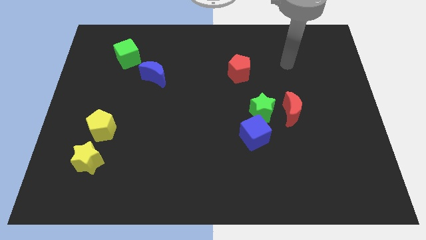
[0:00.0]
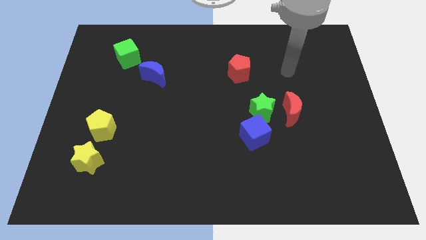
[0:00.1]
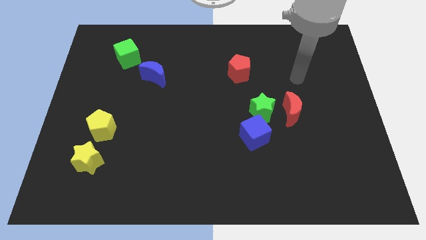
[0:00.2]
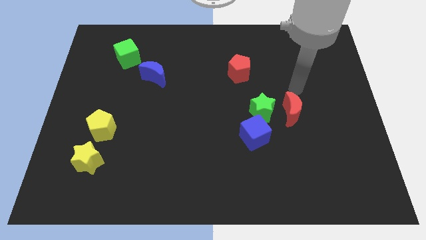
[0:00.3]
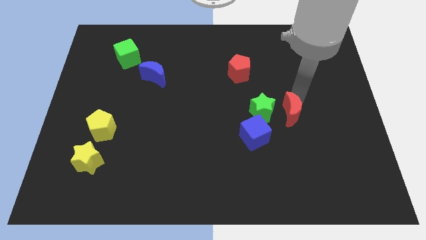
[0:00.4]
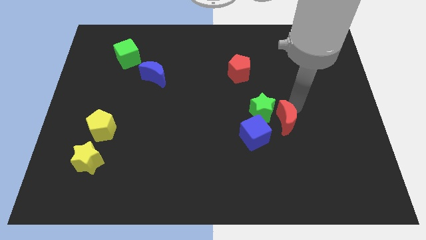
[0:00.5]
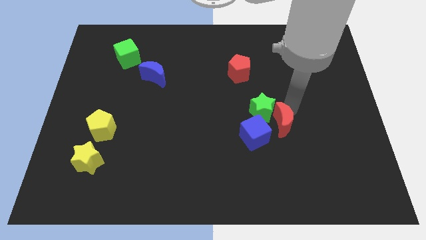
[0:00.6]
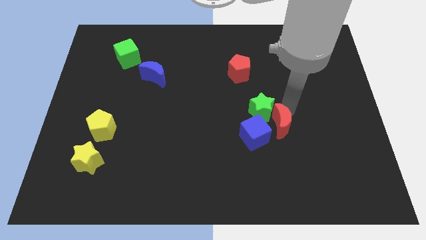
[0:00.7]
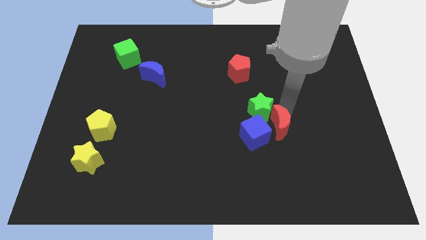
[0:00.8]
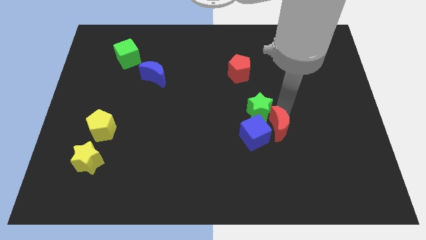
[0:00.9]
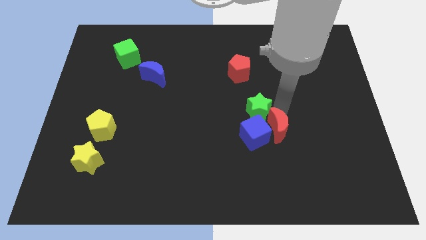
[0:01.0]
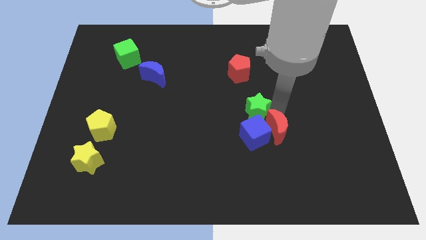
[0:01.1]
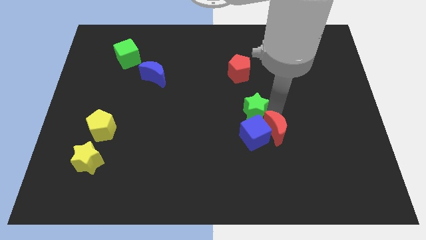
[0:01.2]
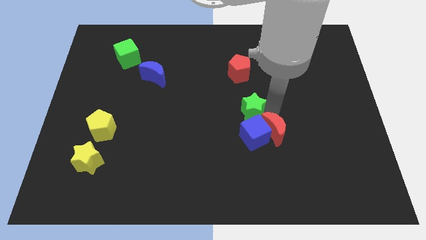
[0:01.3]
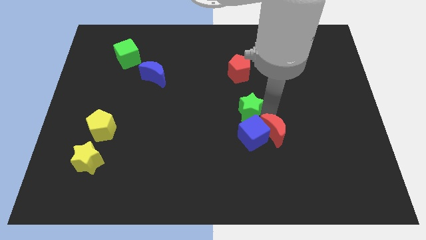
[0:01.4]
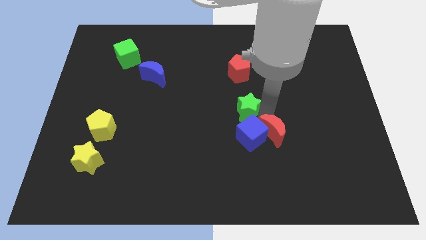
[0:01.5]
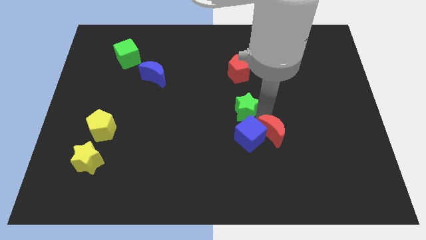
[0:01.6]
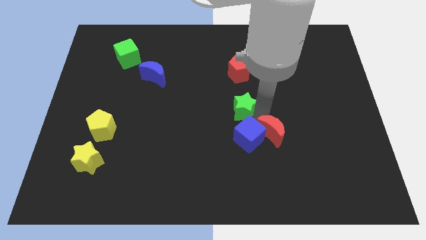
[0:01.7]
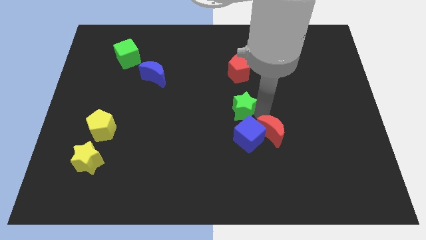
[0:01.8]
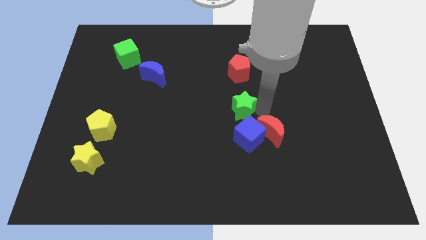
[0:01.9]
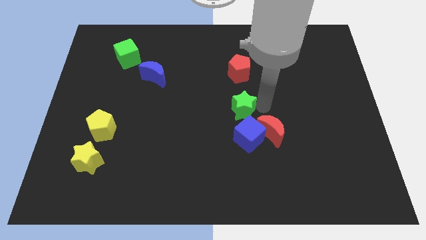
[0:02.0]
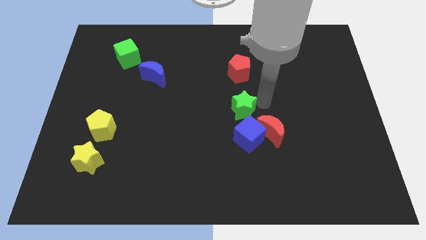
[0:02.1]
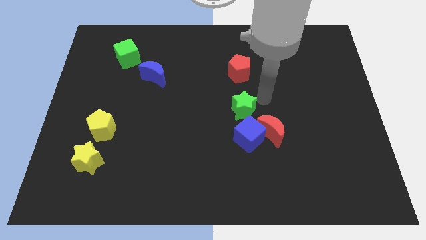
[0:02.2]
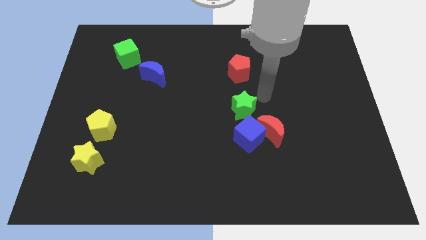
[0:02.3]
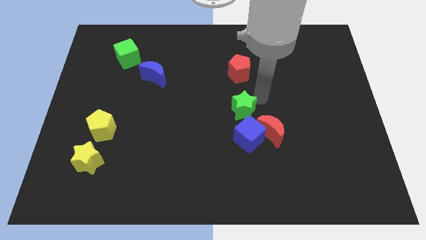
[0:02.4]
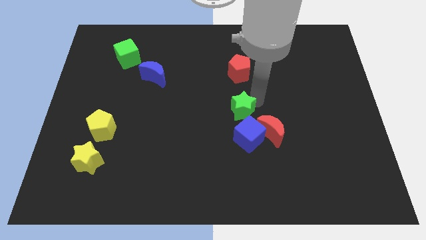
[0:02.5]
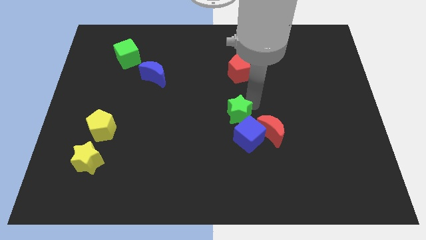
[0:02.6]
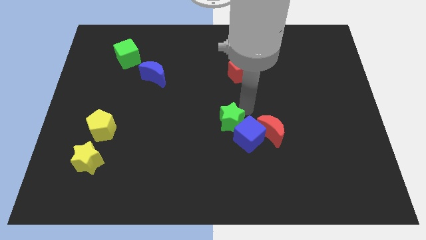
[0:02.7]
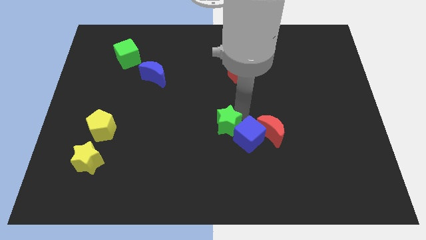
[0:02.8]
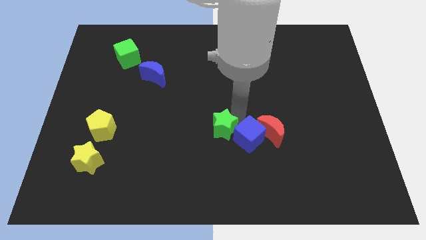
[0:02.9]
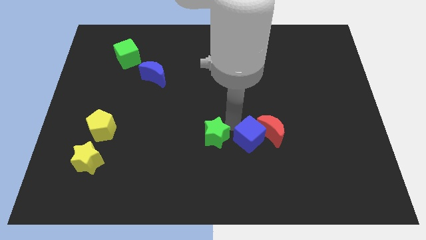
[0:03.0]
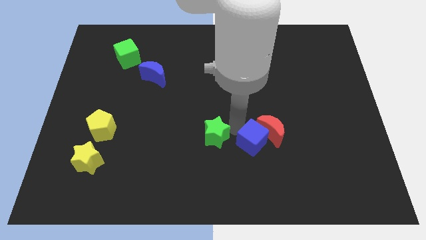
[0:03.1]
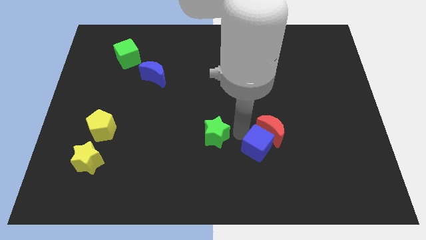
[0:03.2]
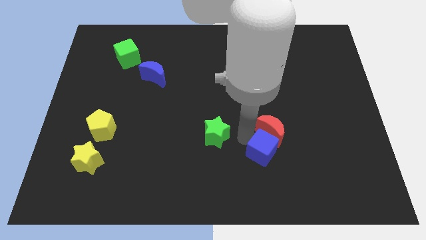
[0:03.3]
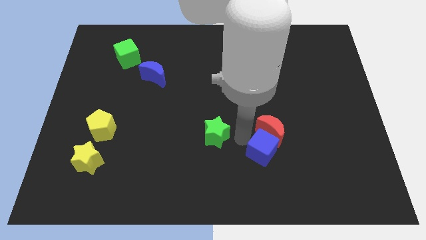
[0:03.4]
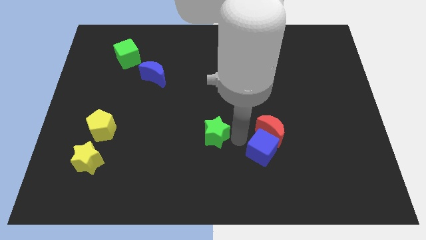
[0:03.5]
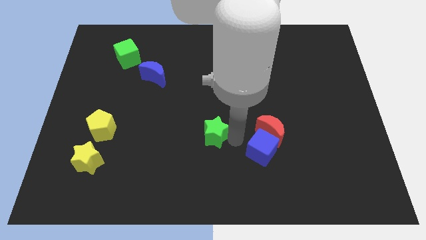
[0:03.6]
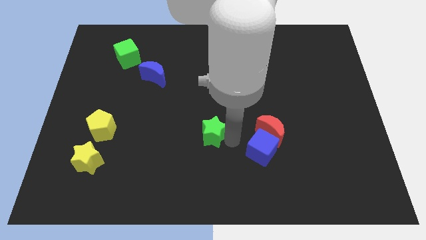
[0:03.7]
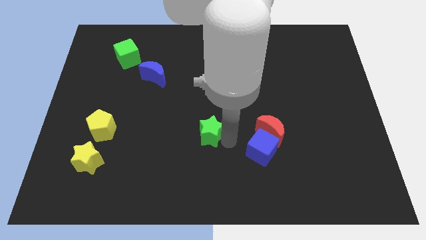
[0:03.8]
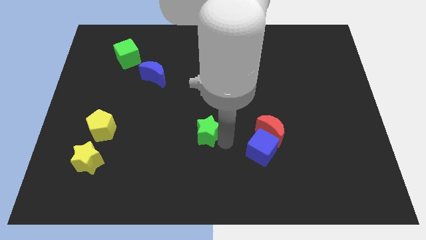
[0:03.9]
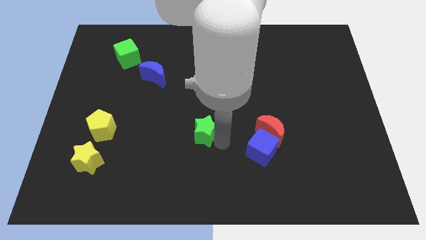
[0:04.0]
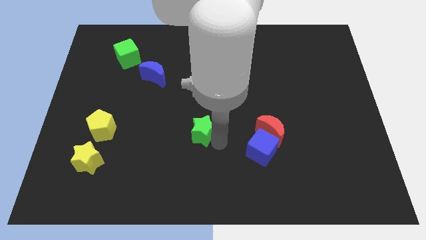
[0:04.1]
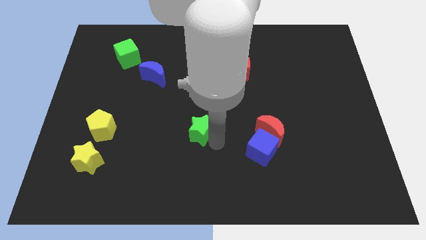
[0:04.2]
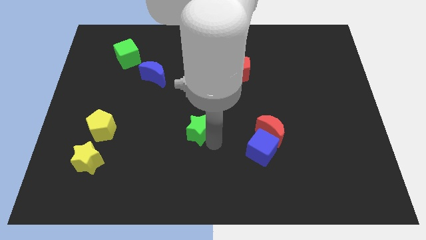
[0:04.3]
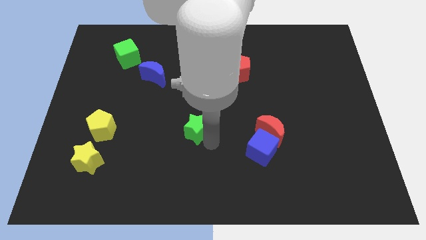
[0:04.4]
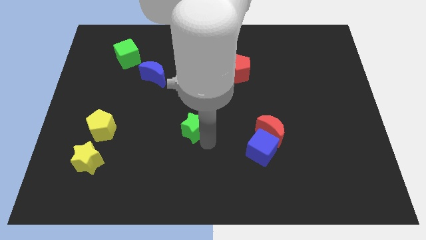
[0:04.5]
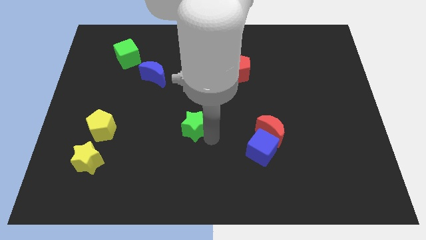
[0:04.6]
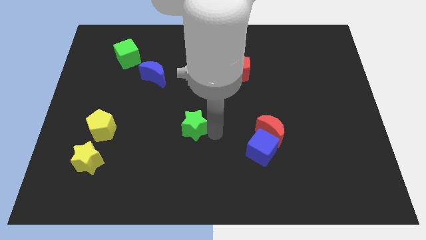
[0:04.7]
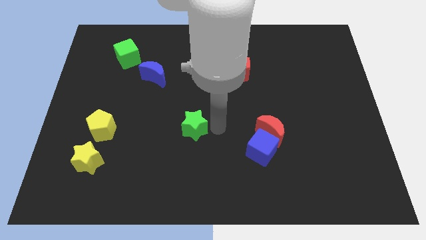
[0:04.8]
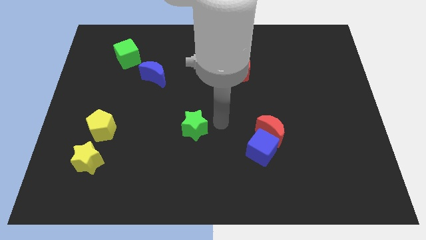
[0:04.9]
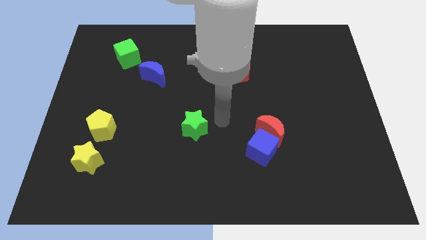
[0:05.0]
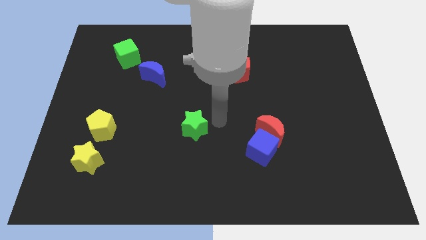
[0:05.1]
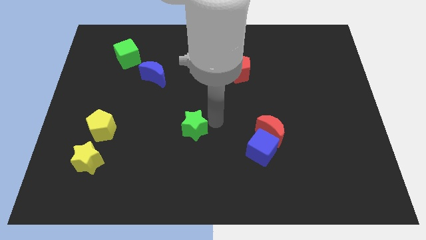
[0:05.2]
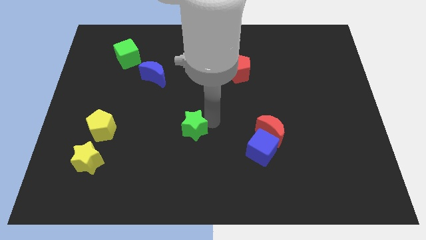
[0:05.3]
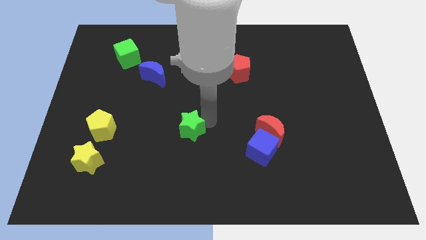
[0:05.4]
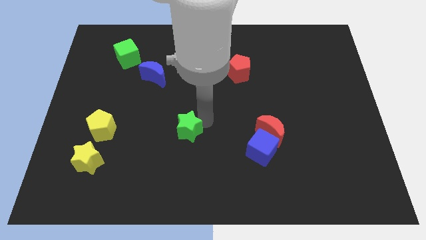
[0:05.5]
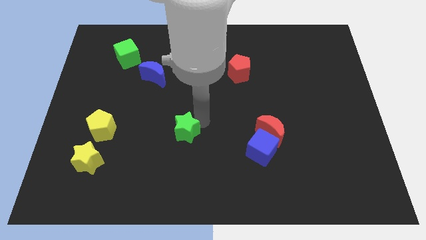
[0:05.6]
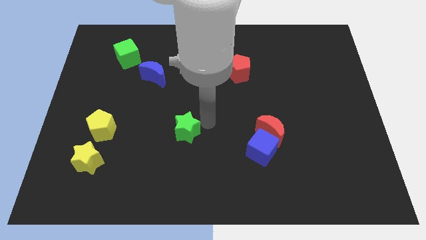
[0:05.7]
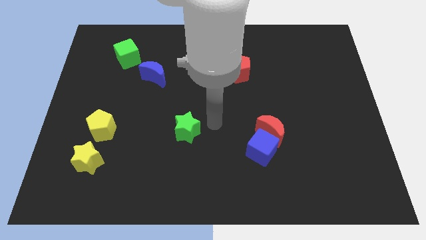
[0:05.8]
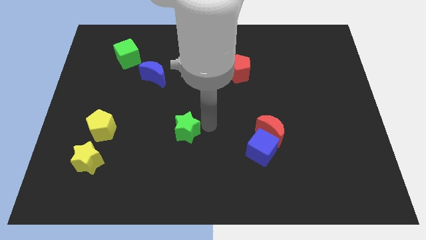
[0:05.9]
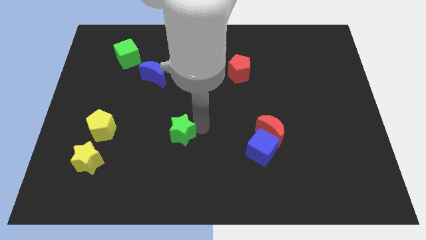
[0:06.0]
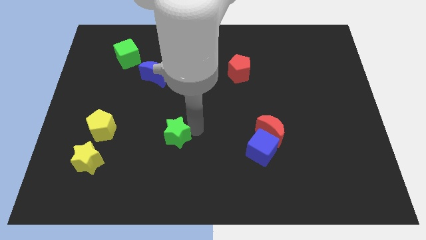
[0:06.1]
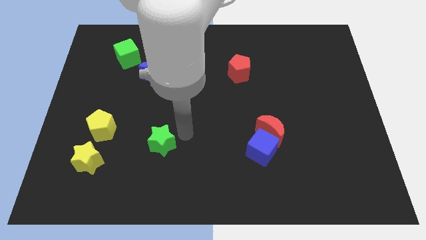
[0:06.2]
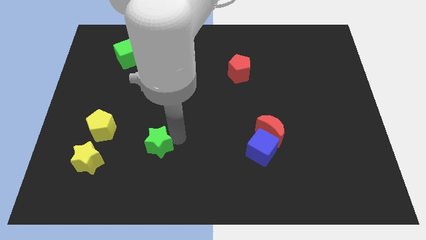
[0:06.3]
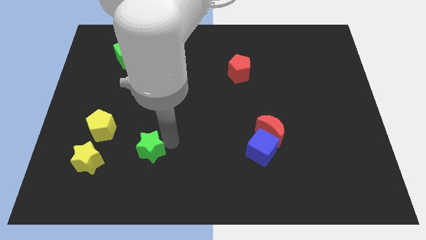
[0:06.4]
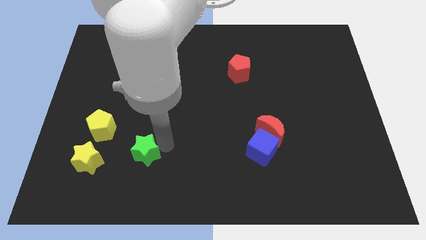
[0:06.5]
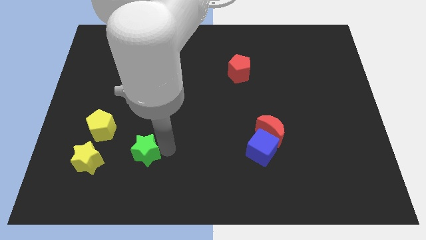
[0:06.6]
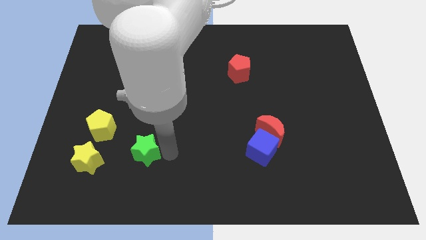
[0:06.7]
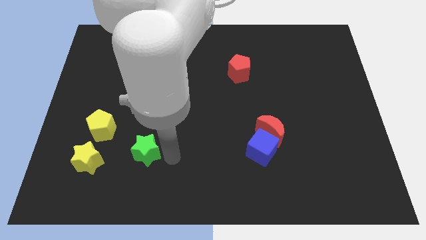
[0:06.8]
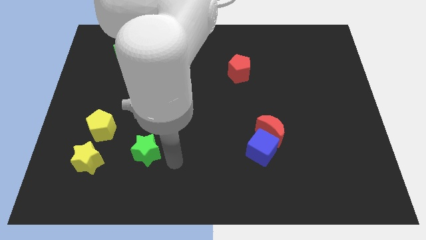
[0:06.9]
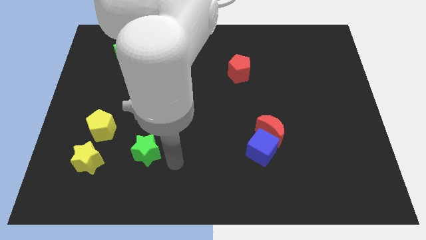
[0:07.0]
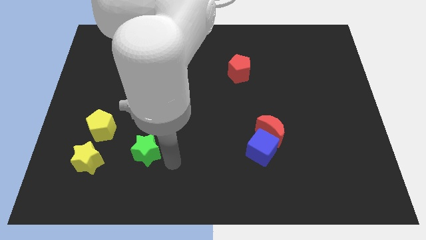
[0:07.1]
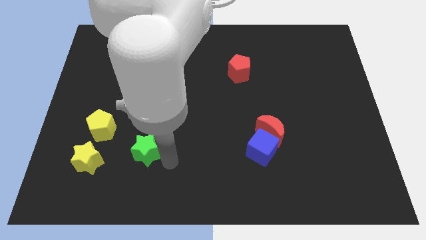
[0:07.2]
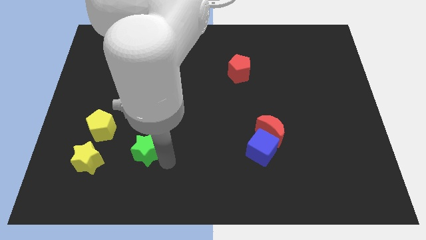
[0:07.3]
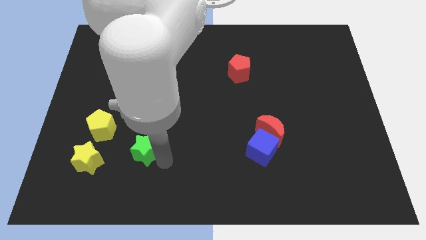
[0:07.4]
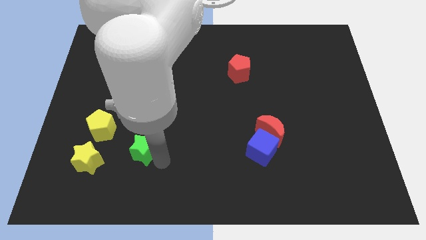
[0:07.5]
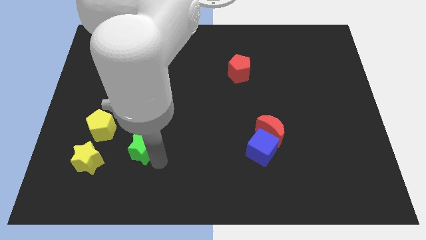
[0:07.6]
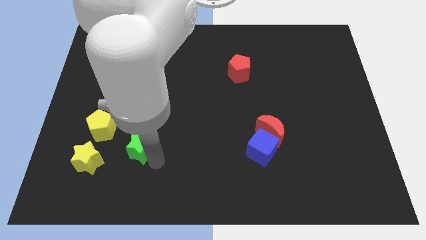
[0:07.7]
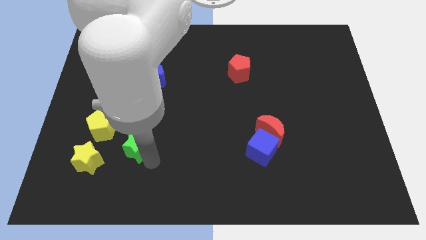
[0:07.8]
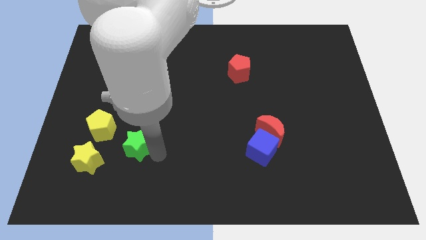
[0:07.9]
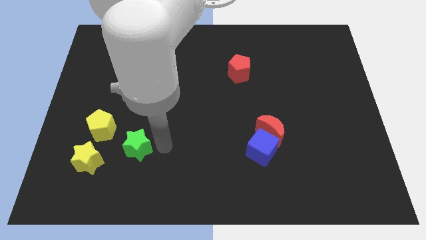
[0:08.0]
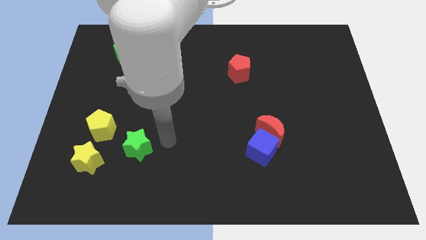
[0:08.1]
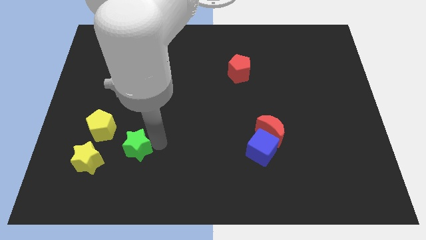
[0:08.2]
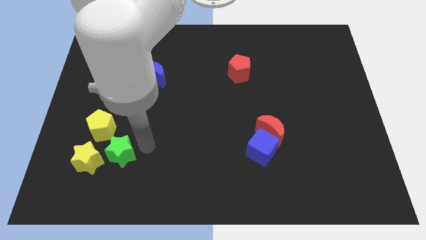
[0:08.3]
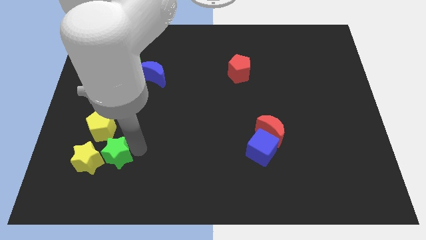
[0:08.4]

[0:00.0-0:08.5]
slide the green star to the yellow star
